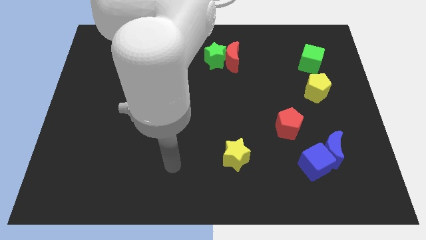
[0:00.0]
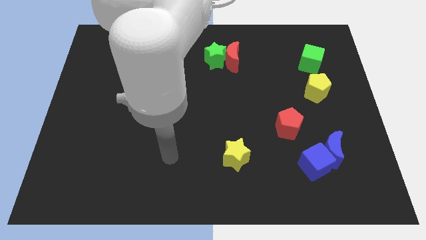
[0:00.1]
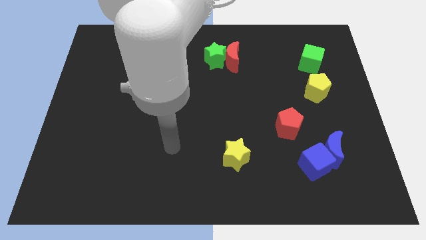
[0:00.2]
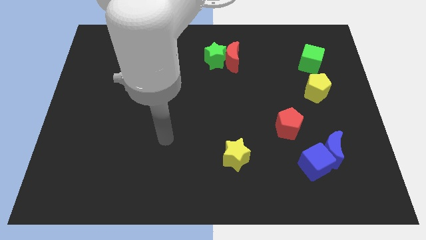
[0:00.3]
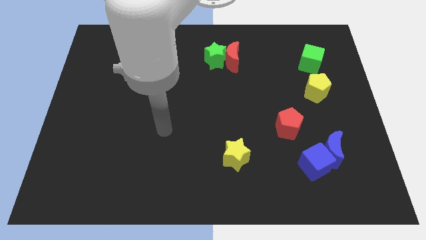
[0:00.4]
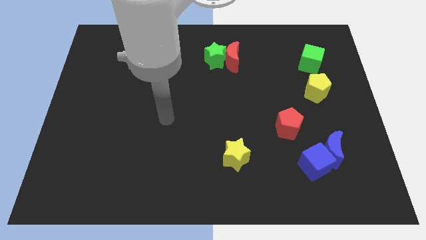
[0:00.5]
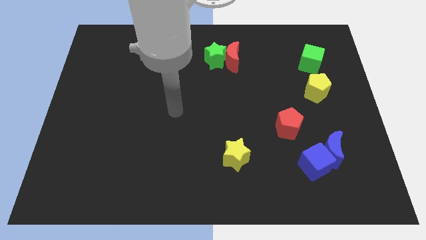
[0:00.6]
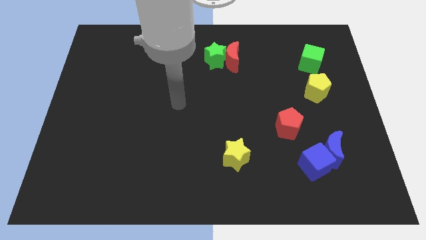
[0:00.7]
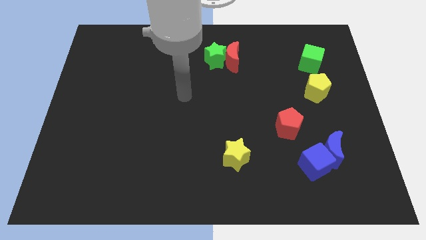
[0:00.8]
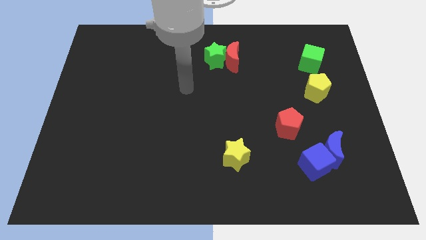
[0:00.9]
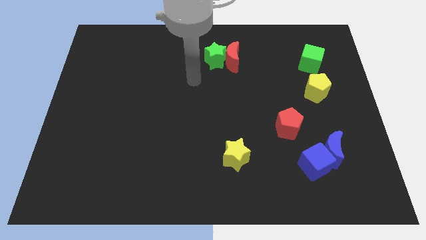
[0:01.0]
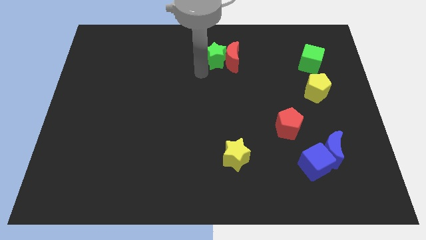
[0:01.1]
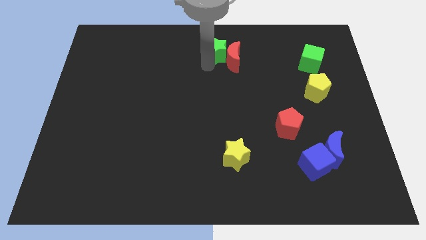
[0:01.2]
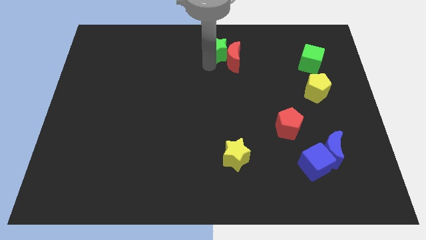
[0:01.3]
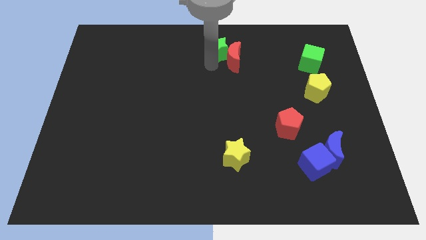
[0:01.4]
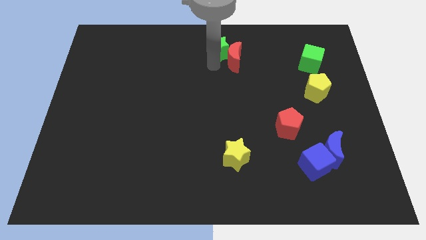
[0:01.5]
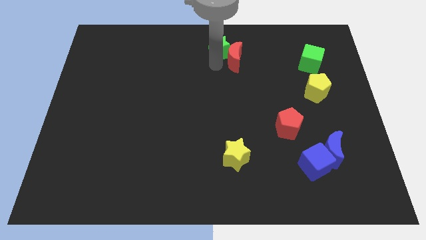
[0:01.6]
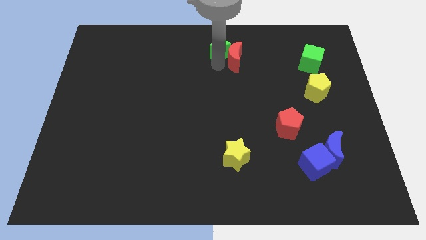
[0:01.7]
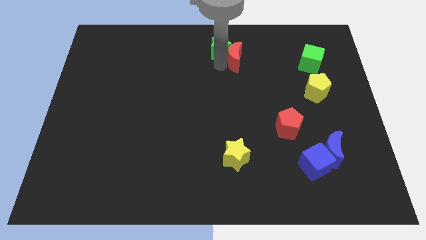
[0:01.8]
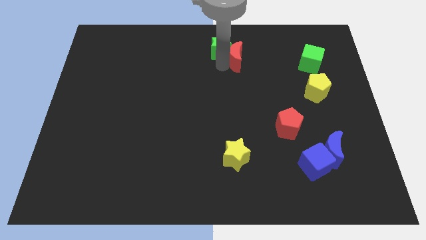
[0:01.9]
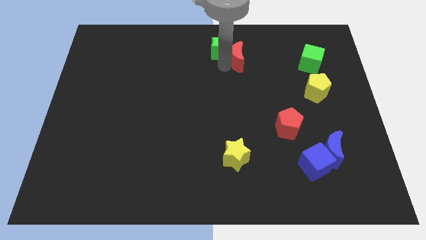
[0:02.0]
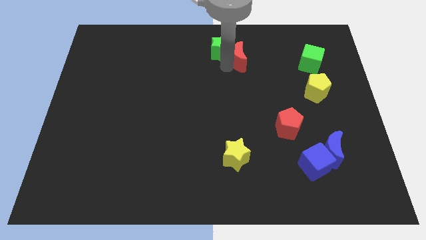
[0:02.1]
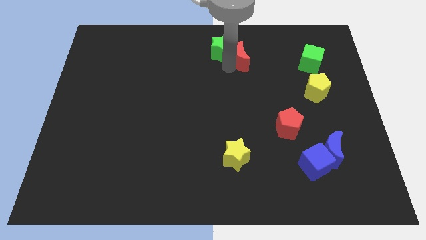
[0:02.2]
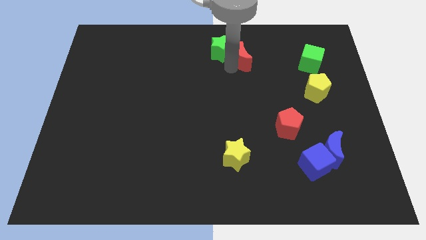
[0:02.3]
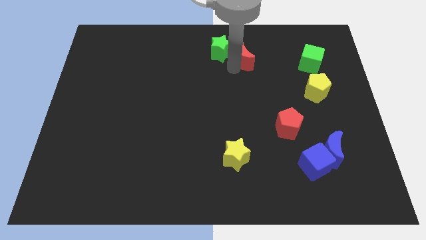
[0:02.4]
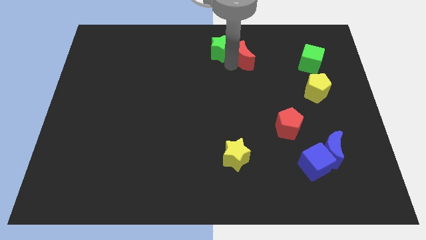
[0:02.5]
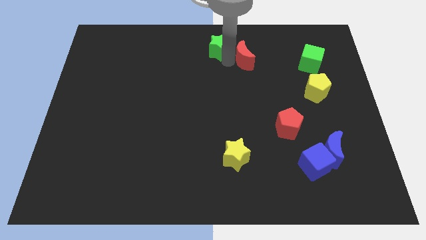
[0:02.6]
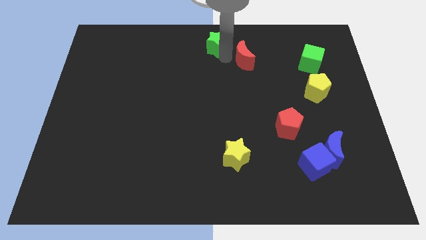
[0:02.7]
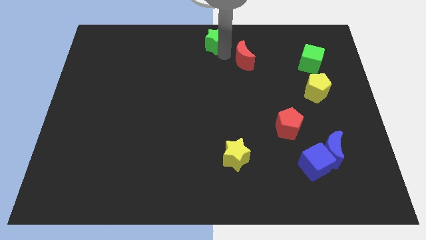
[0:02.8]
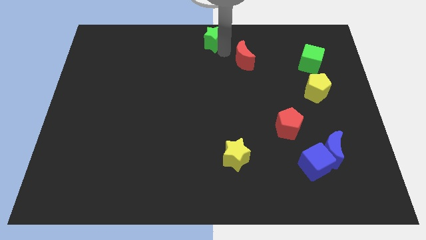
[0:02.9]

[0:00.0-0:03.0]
pull the red moon apart from the green star

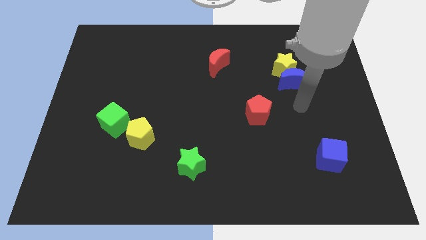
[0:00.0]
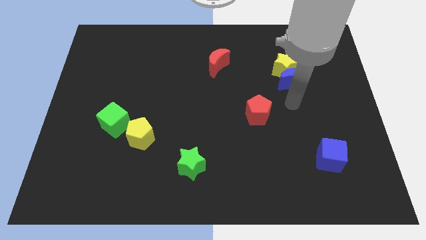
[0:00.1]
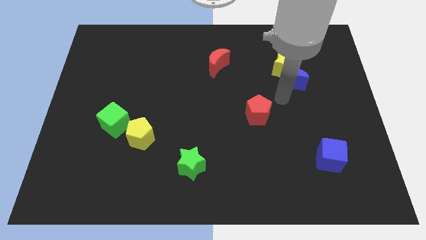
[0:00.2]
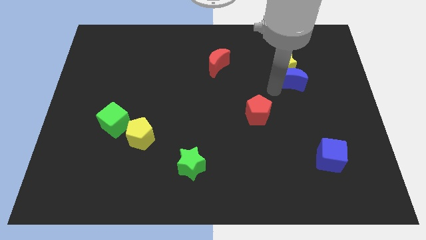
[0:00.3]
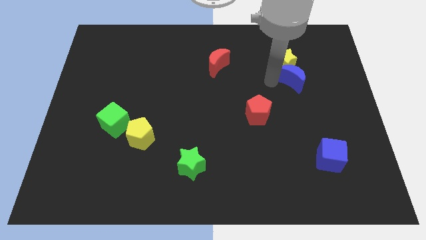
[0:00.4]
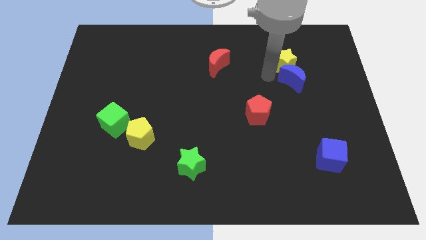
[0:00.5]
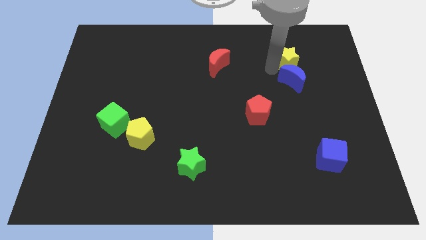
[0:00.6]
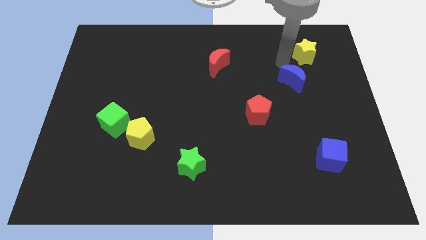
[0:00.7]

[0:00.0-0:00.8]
move the blue moon away from the yellow star

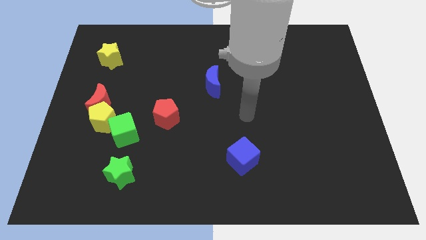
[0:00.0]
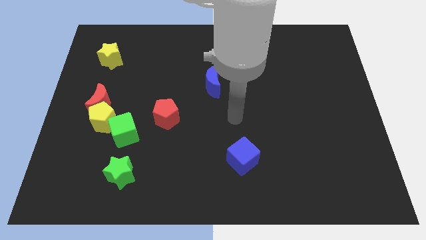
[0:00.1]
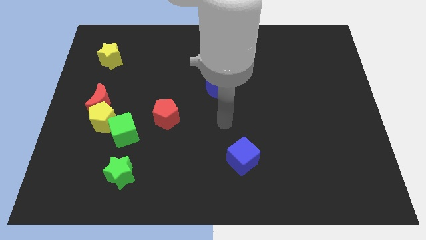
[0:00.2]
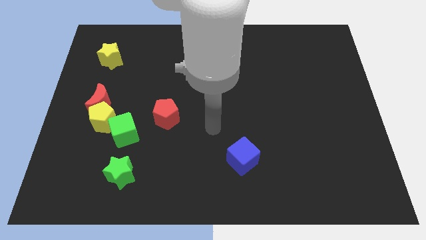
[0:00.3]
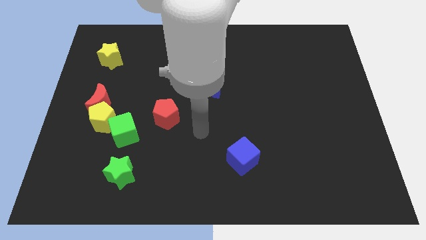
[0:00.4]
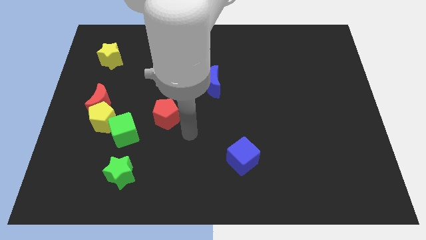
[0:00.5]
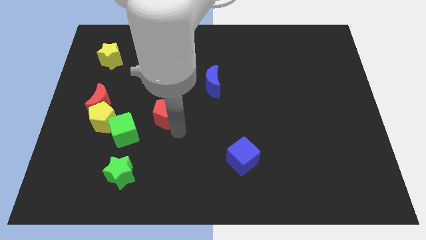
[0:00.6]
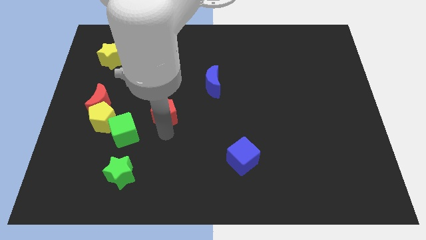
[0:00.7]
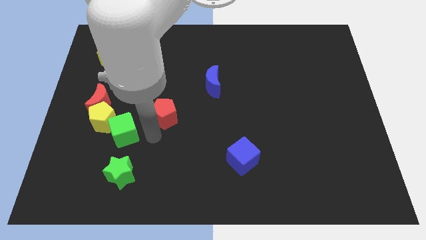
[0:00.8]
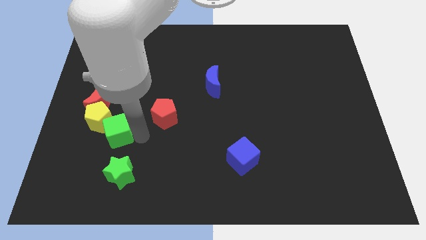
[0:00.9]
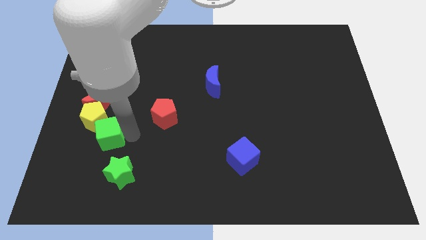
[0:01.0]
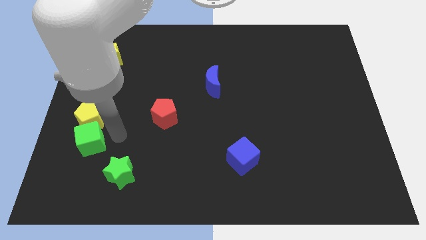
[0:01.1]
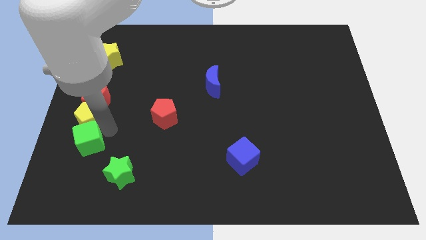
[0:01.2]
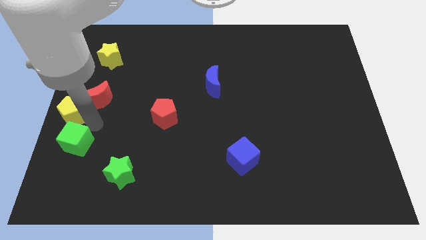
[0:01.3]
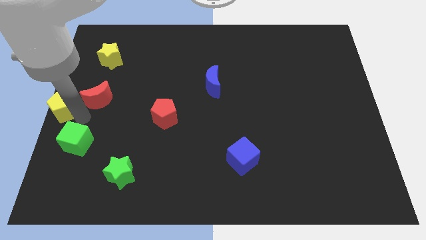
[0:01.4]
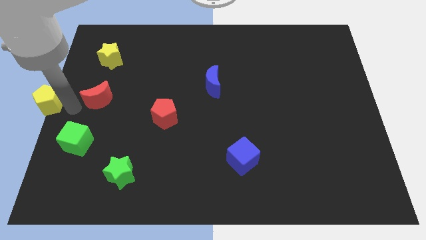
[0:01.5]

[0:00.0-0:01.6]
pull the red moon apart from the yellow pentagon

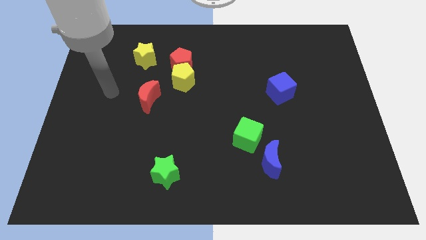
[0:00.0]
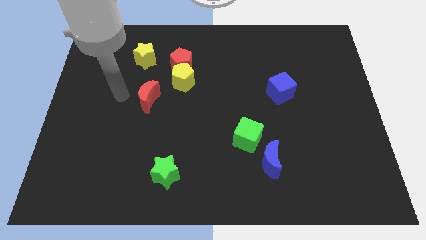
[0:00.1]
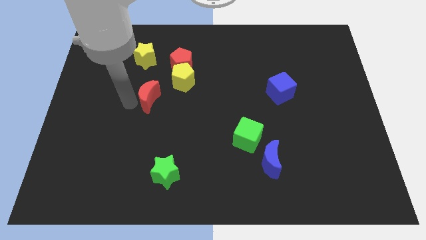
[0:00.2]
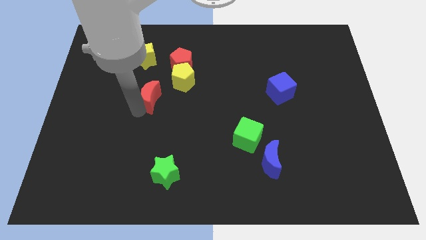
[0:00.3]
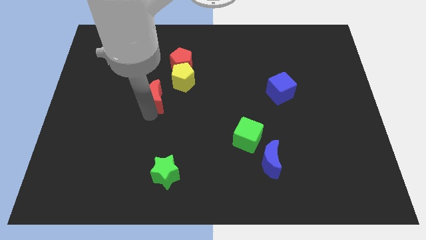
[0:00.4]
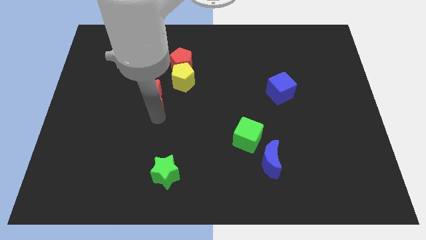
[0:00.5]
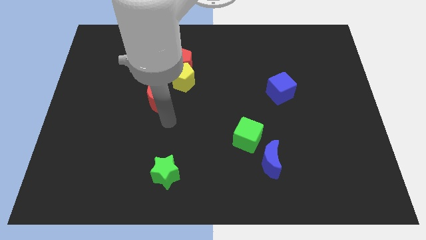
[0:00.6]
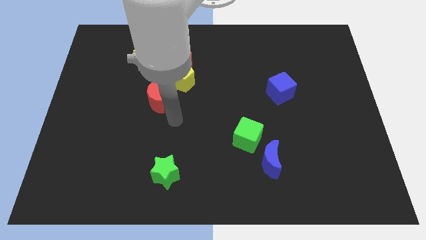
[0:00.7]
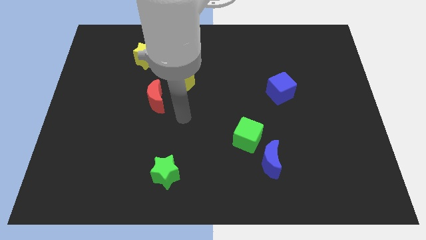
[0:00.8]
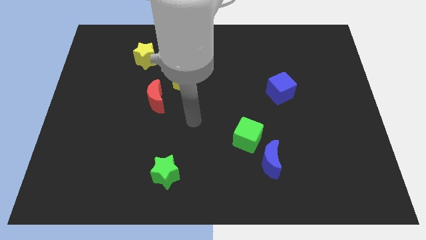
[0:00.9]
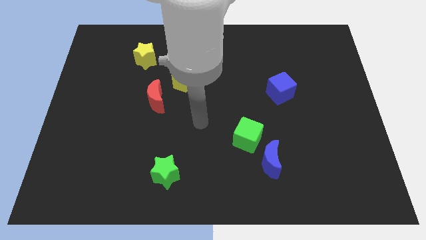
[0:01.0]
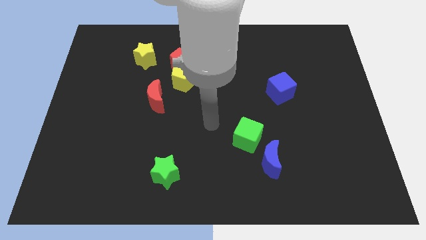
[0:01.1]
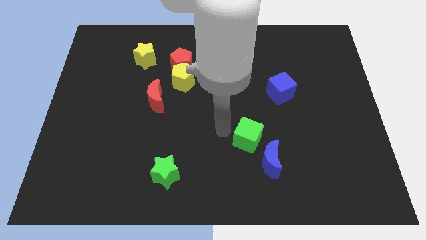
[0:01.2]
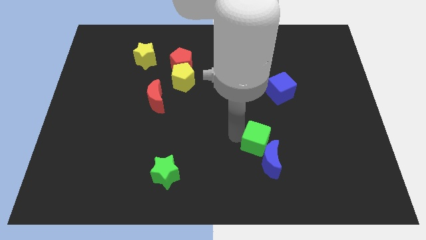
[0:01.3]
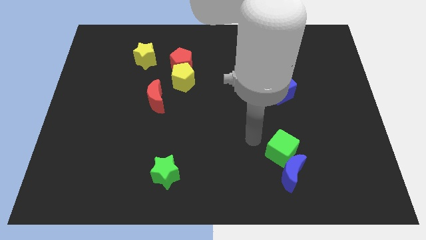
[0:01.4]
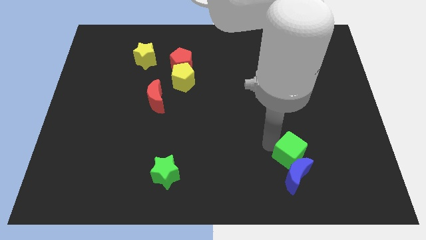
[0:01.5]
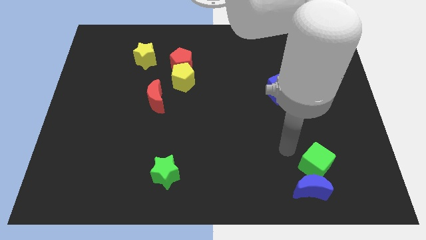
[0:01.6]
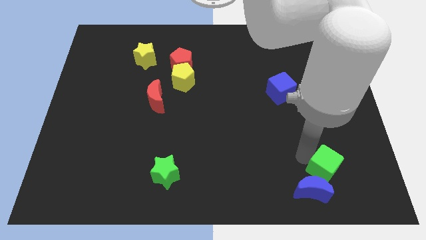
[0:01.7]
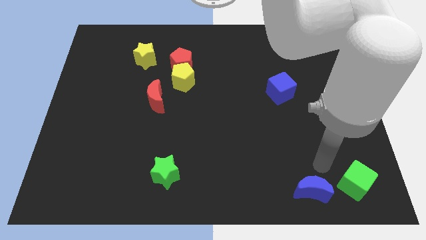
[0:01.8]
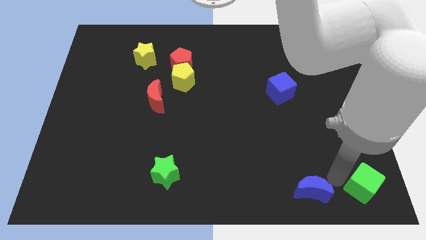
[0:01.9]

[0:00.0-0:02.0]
move the blue moon away from the green cube

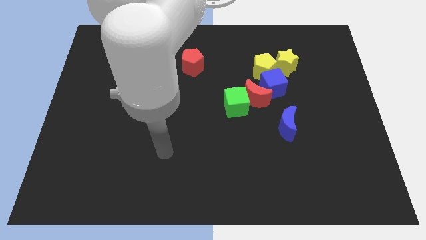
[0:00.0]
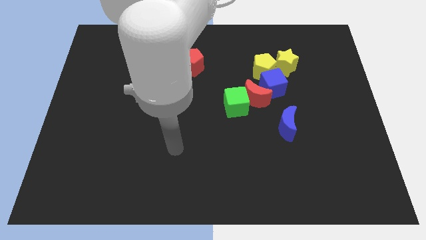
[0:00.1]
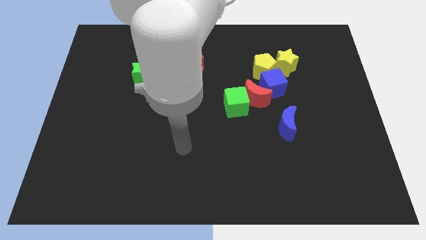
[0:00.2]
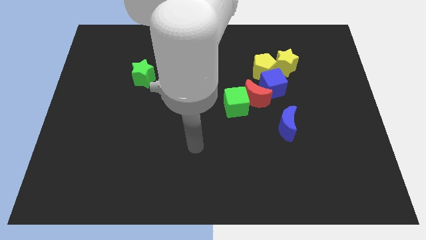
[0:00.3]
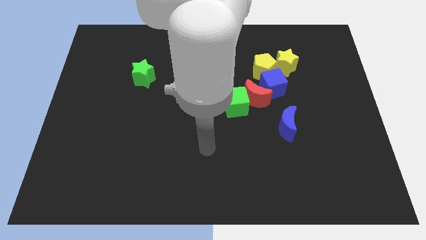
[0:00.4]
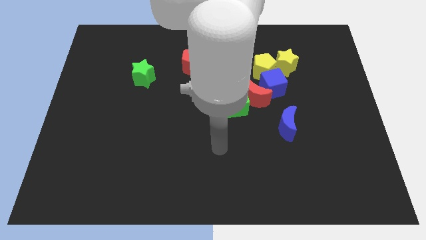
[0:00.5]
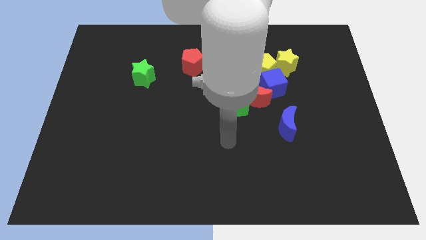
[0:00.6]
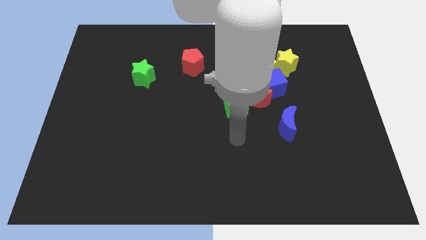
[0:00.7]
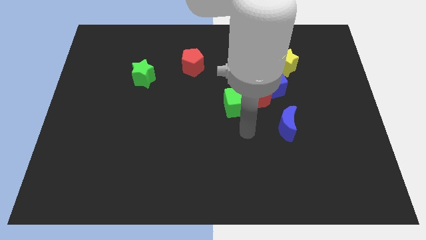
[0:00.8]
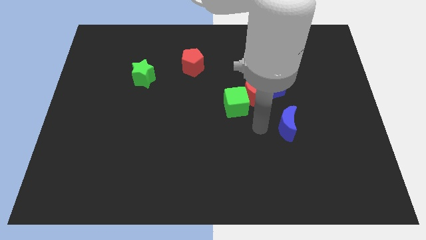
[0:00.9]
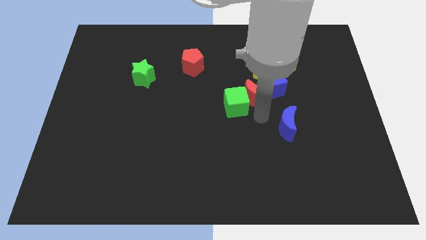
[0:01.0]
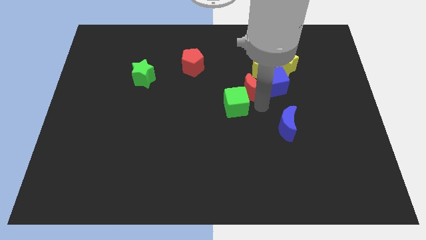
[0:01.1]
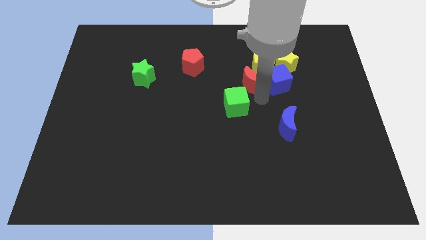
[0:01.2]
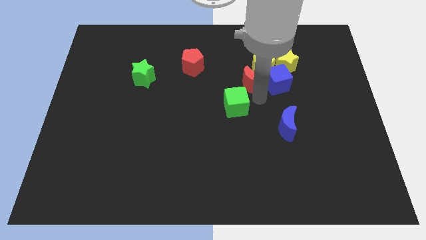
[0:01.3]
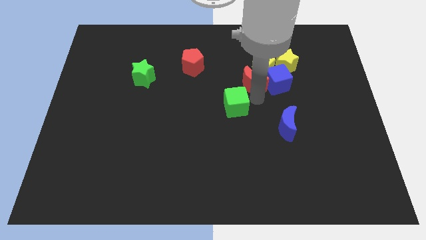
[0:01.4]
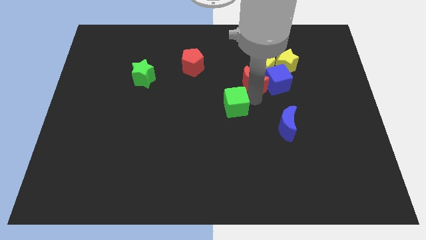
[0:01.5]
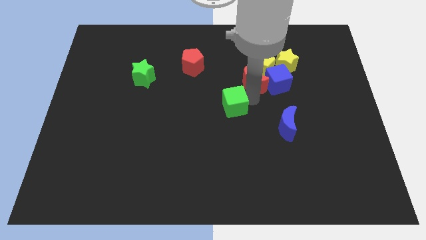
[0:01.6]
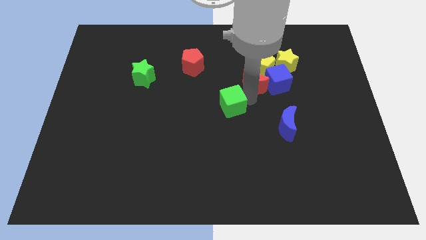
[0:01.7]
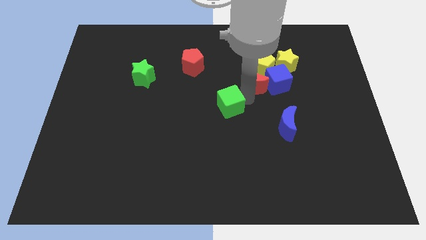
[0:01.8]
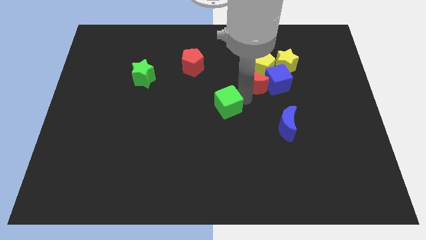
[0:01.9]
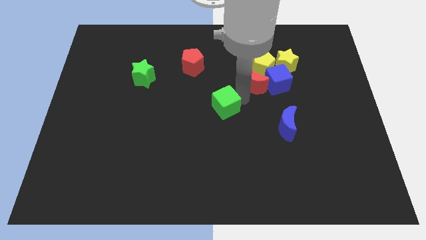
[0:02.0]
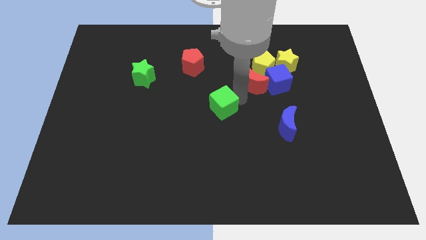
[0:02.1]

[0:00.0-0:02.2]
move the green cube away from the red moon
